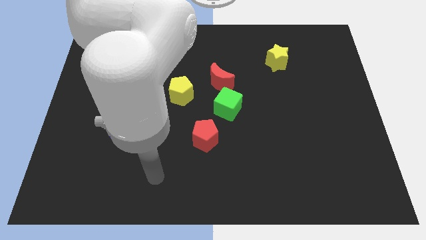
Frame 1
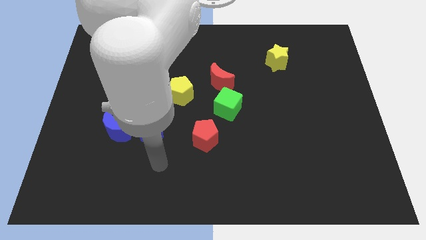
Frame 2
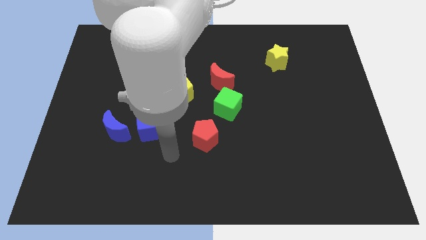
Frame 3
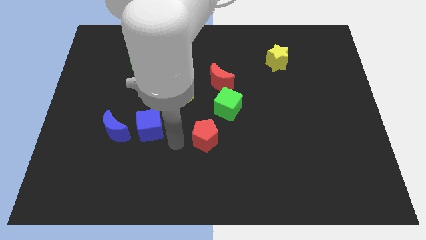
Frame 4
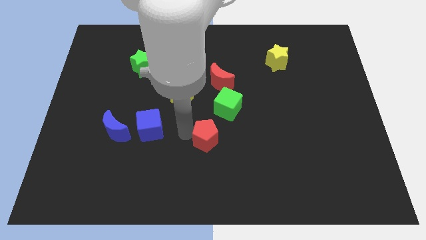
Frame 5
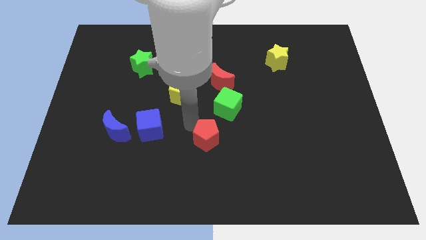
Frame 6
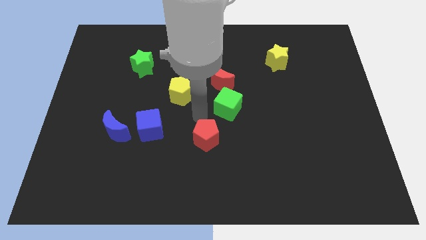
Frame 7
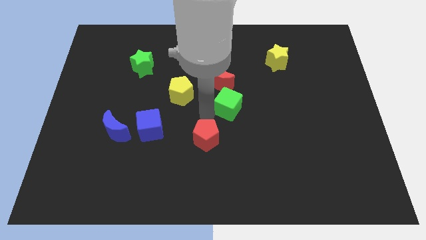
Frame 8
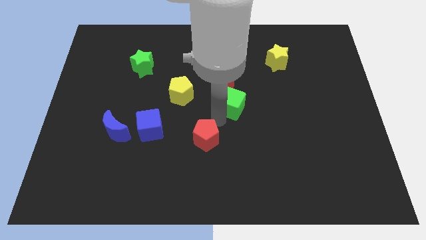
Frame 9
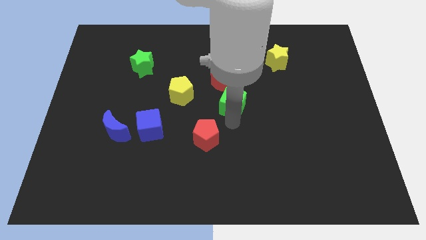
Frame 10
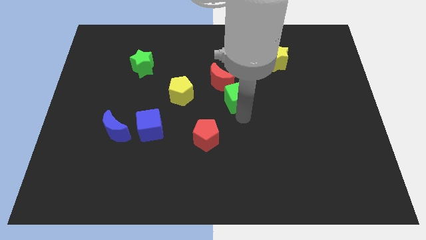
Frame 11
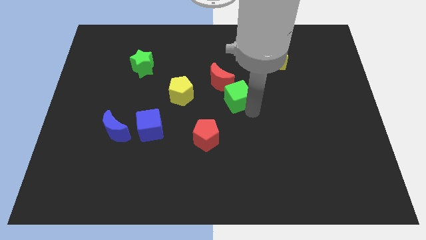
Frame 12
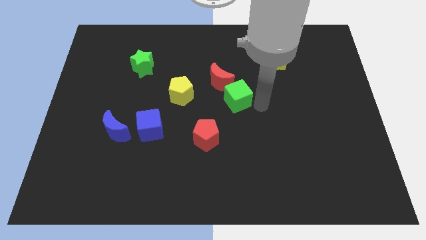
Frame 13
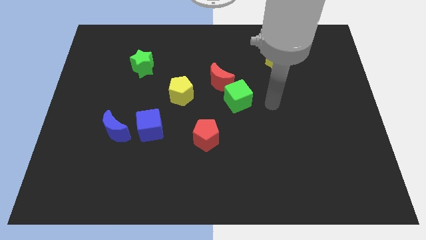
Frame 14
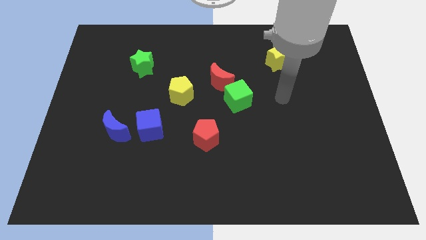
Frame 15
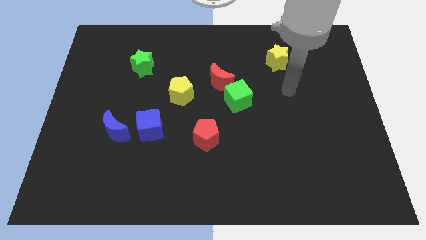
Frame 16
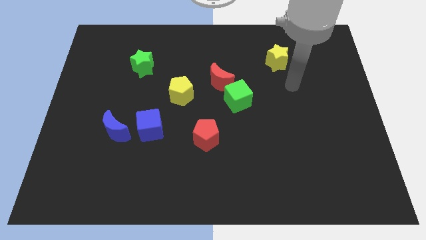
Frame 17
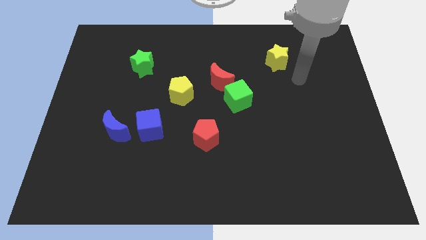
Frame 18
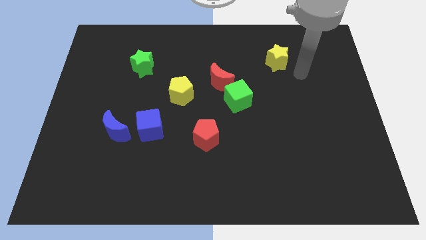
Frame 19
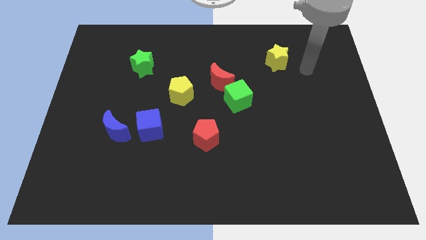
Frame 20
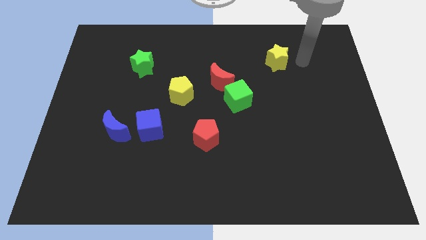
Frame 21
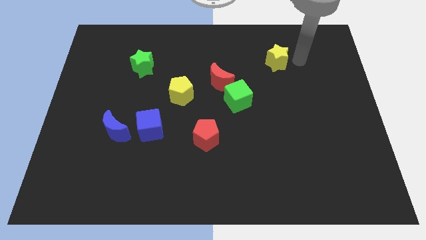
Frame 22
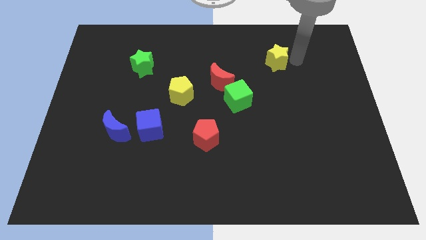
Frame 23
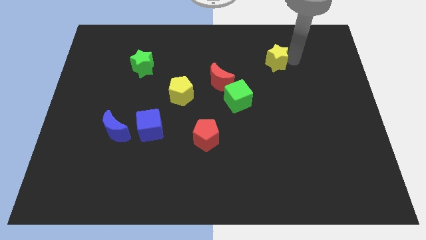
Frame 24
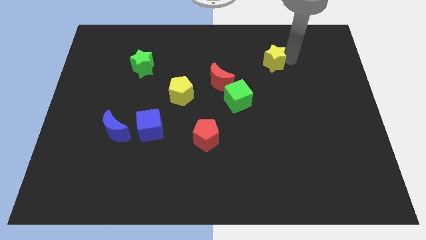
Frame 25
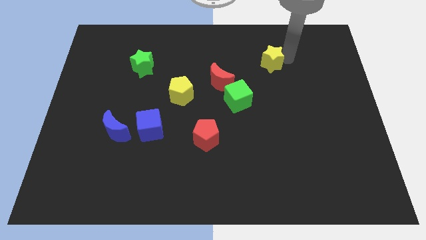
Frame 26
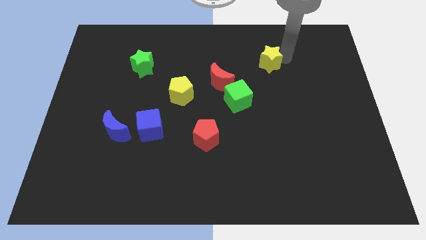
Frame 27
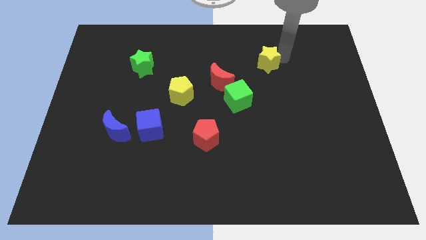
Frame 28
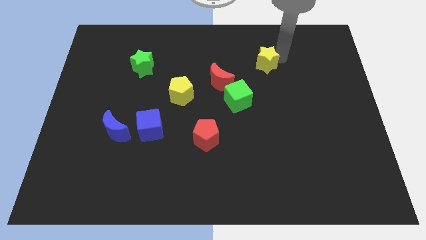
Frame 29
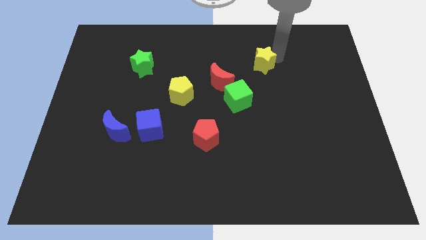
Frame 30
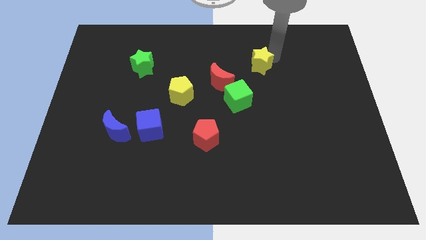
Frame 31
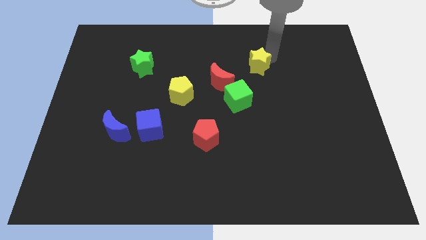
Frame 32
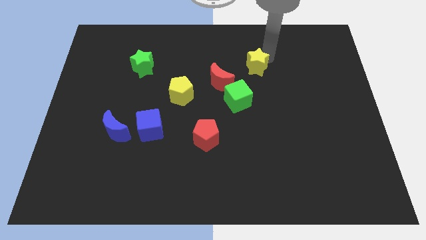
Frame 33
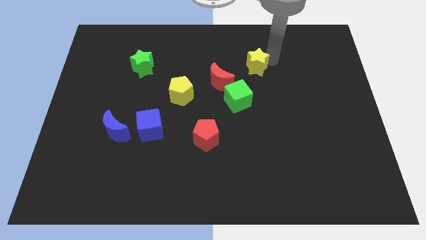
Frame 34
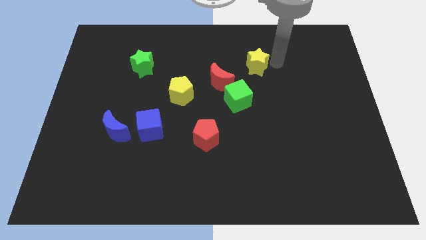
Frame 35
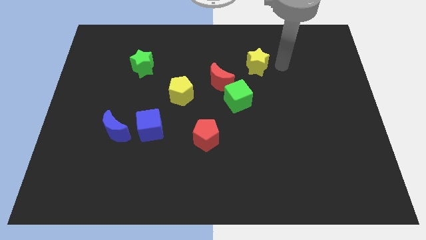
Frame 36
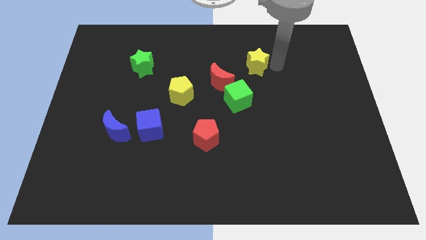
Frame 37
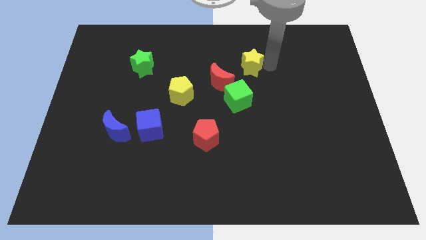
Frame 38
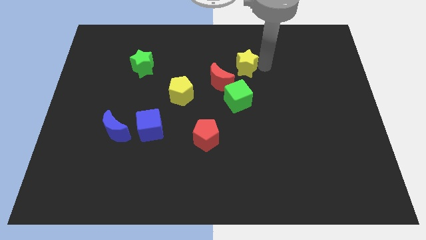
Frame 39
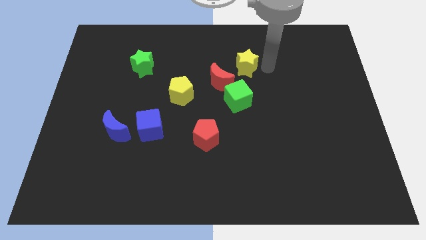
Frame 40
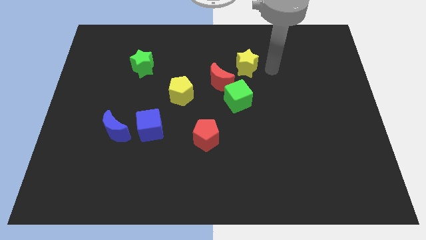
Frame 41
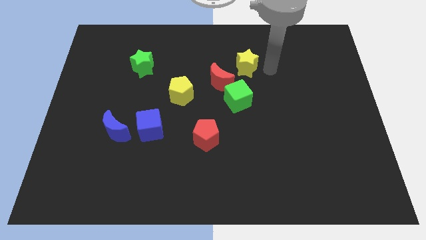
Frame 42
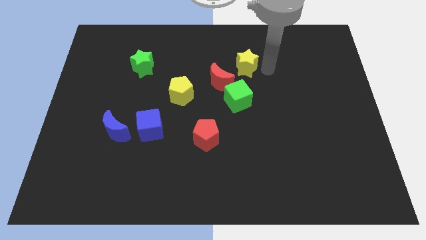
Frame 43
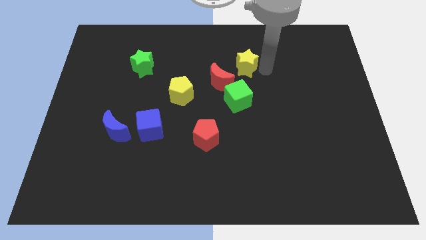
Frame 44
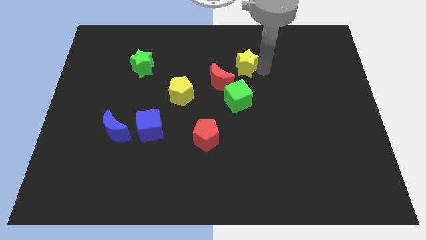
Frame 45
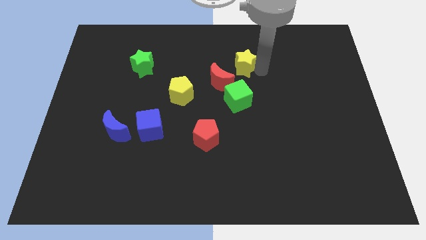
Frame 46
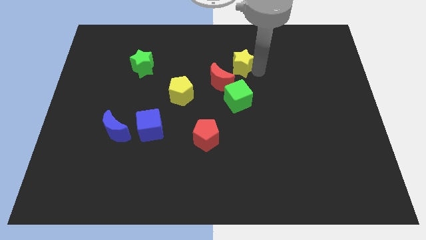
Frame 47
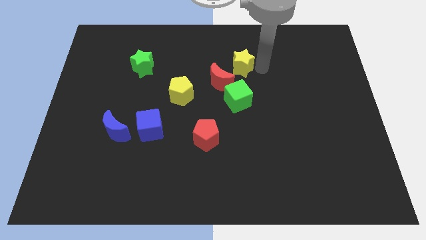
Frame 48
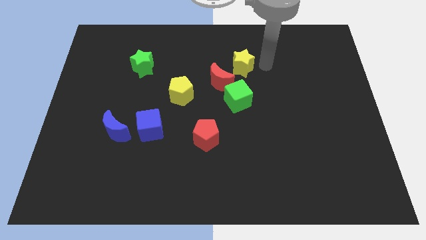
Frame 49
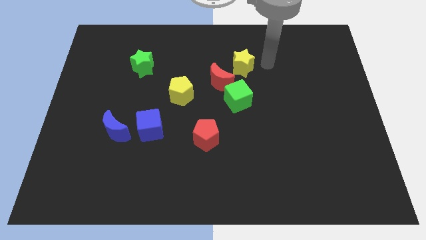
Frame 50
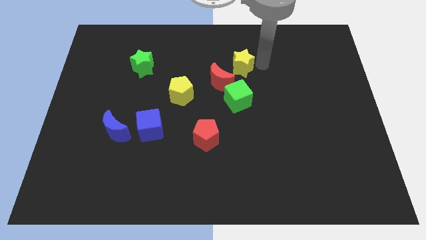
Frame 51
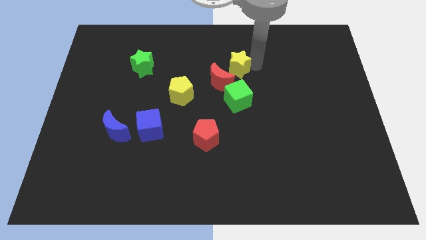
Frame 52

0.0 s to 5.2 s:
put the yellow star to the middle

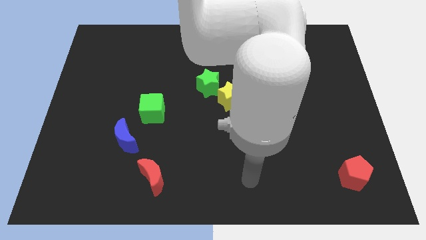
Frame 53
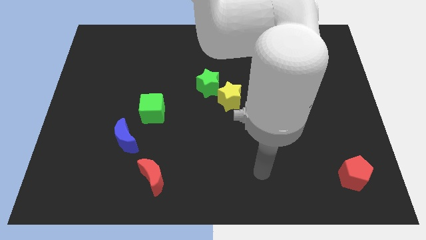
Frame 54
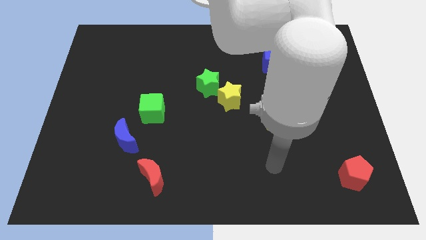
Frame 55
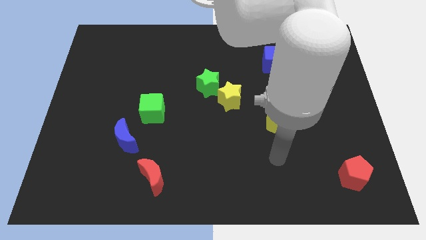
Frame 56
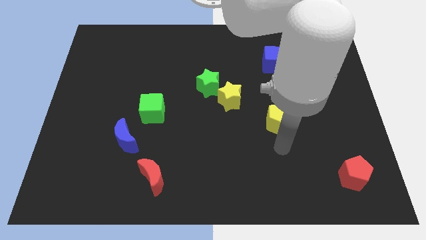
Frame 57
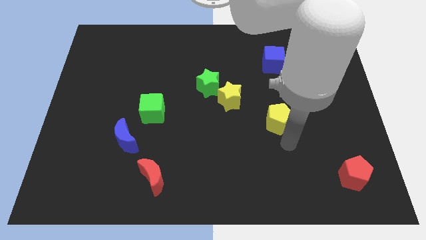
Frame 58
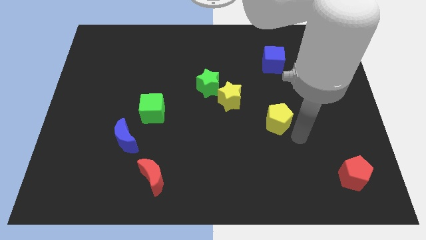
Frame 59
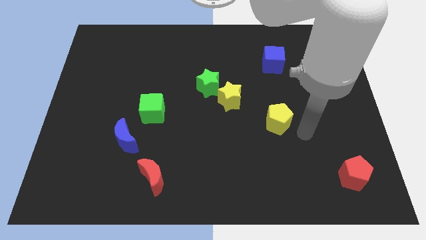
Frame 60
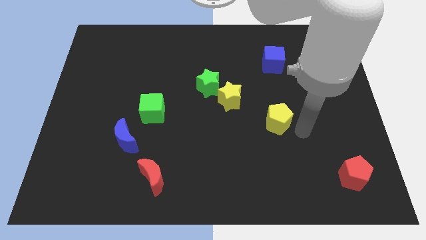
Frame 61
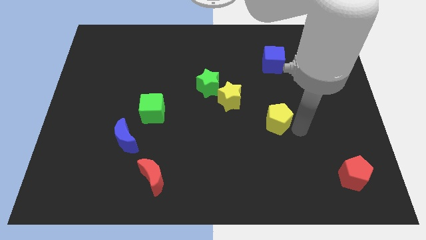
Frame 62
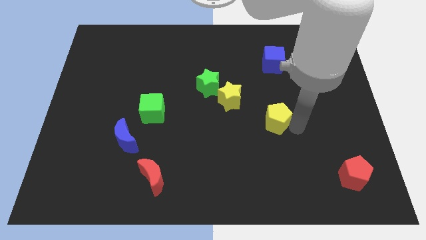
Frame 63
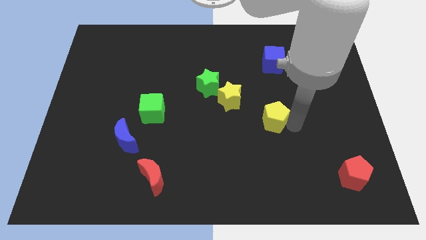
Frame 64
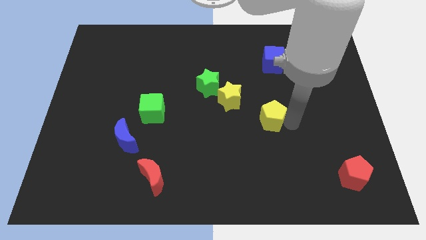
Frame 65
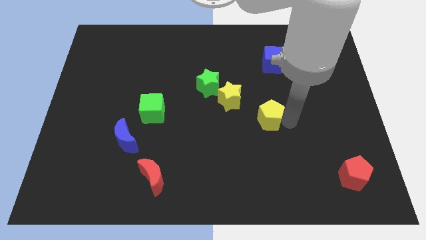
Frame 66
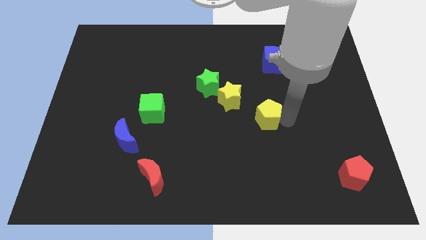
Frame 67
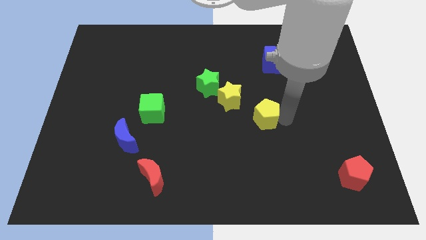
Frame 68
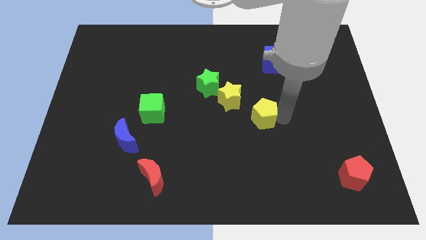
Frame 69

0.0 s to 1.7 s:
move the yellow pentagon to the middle
